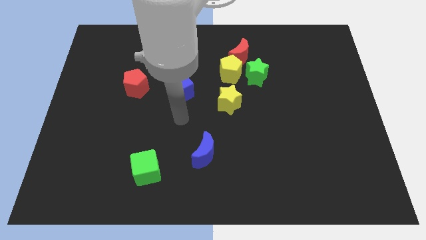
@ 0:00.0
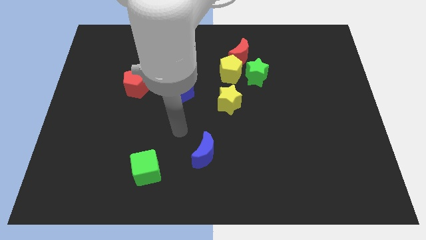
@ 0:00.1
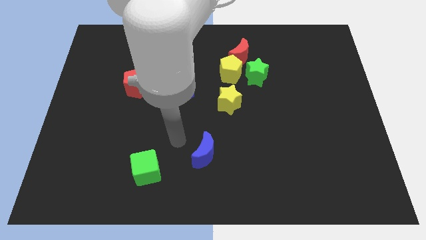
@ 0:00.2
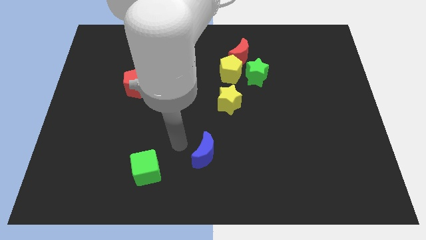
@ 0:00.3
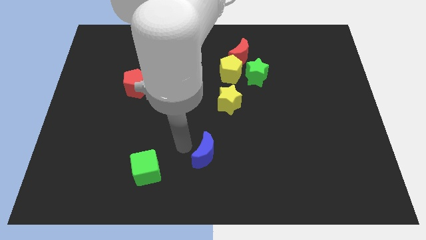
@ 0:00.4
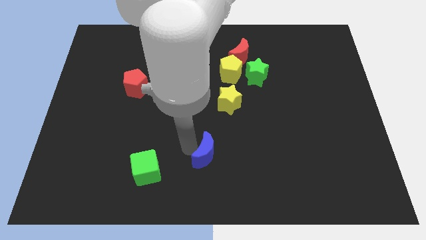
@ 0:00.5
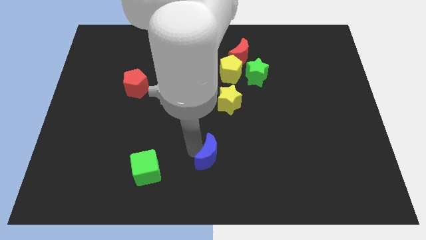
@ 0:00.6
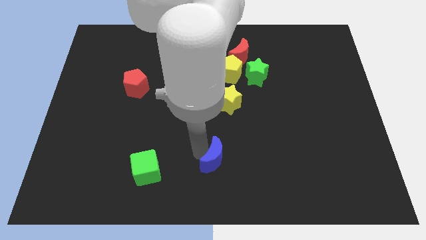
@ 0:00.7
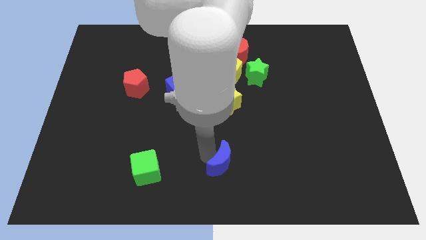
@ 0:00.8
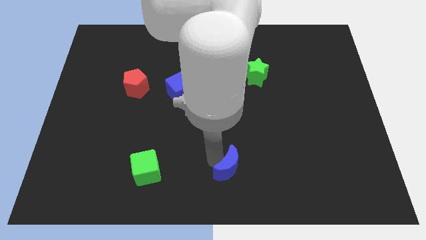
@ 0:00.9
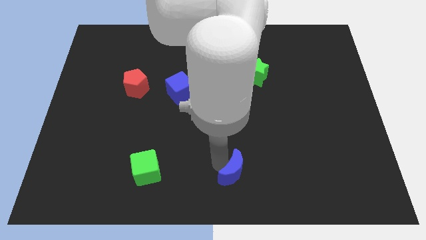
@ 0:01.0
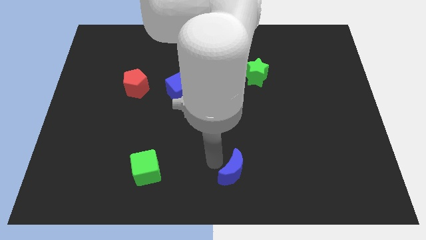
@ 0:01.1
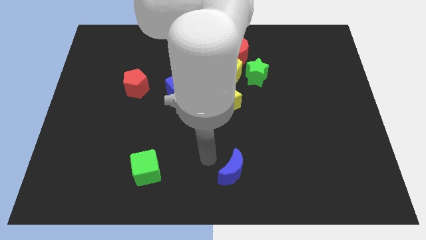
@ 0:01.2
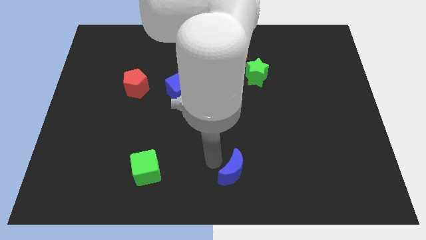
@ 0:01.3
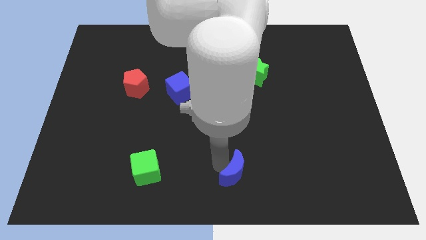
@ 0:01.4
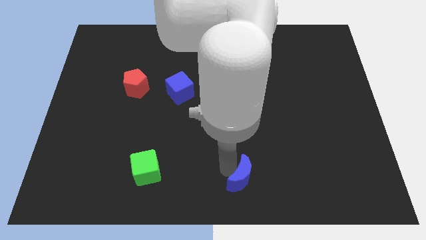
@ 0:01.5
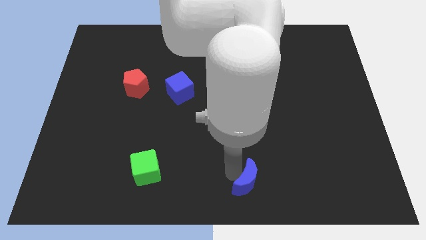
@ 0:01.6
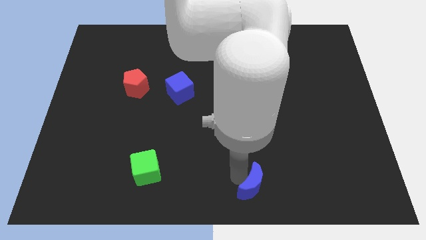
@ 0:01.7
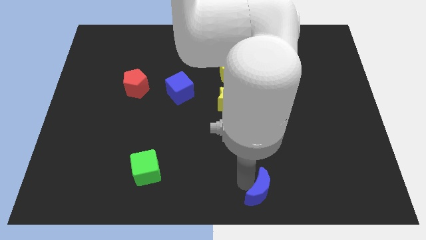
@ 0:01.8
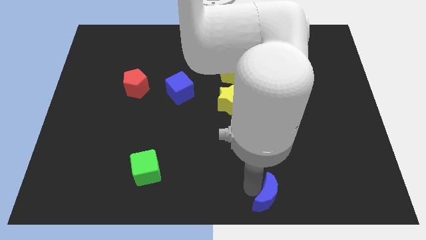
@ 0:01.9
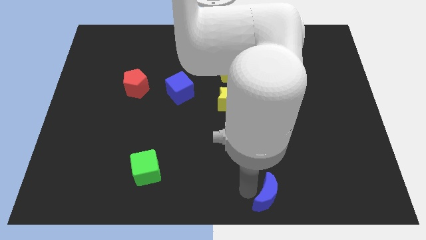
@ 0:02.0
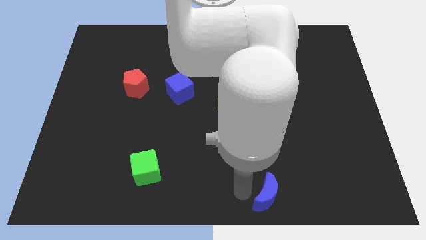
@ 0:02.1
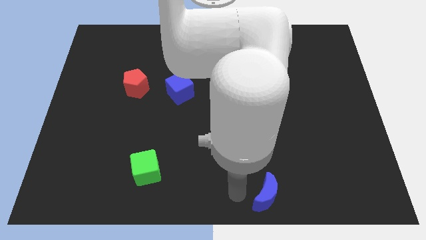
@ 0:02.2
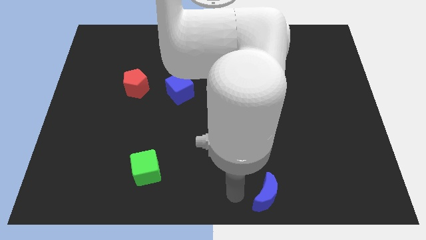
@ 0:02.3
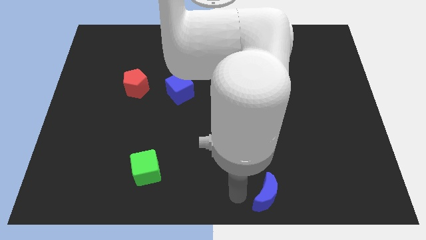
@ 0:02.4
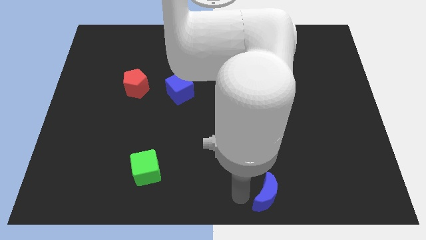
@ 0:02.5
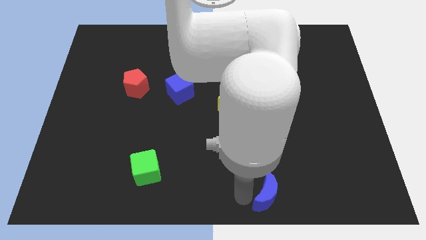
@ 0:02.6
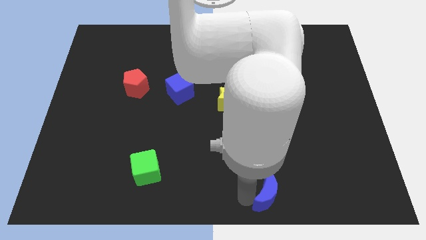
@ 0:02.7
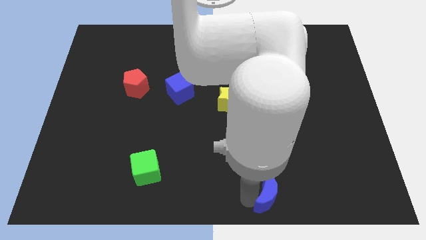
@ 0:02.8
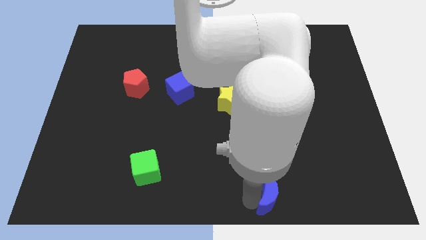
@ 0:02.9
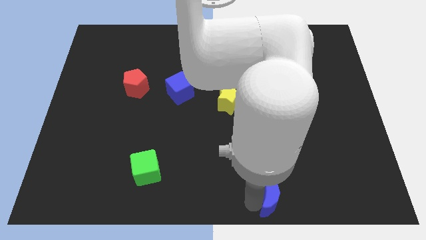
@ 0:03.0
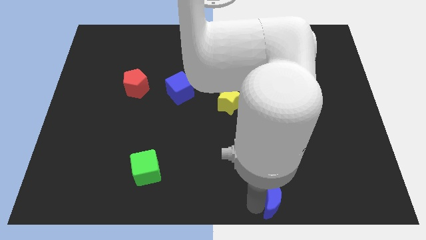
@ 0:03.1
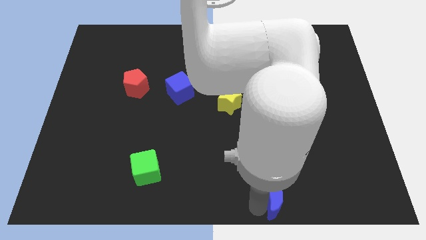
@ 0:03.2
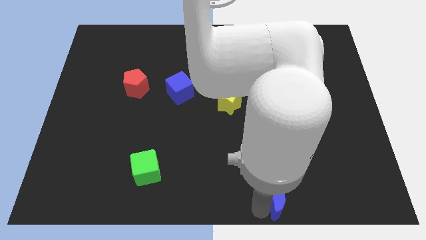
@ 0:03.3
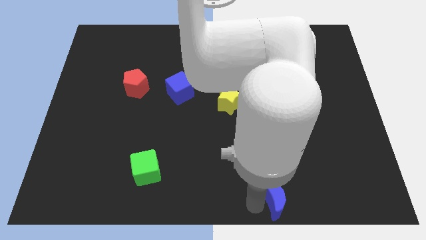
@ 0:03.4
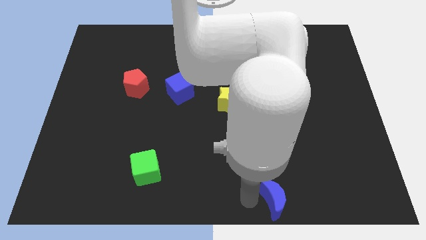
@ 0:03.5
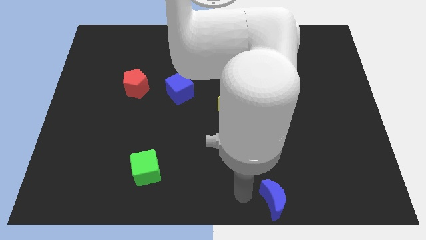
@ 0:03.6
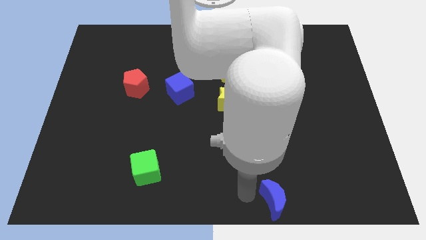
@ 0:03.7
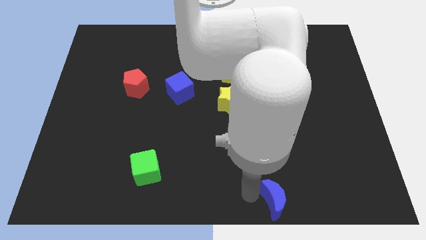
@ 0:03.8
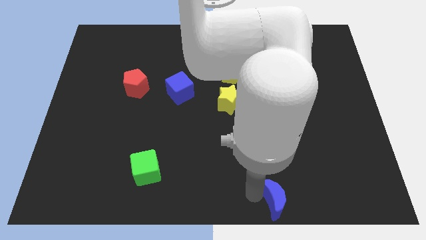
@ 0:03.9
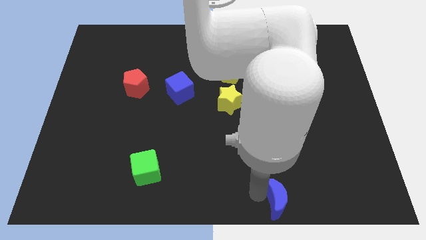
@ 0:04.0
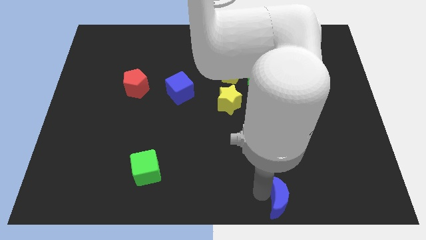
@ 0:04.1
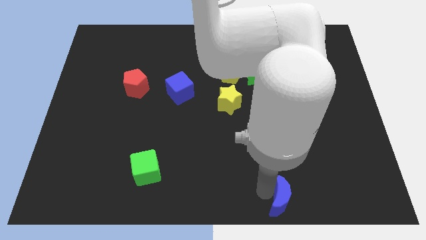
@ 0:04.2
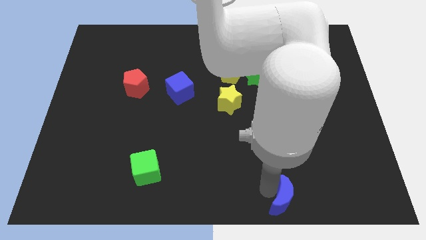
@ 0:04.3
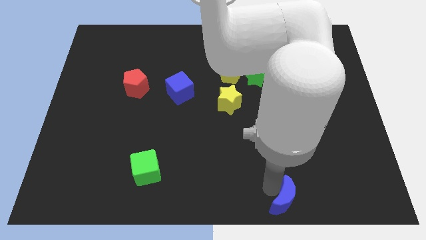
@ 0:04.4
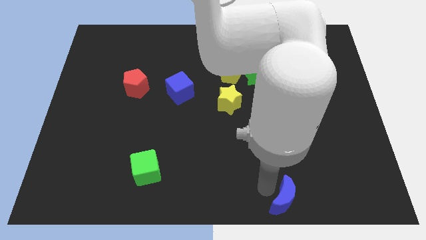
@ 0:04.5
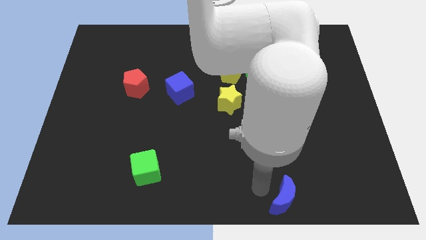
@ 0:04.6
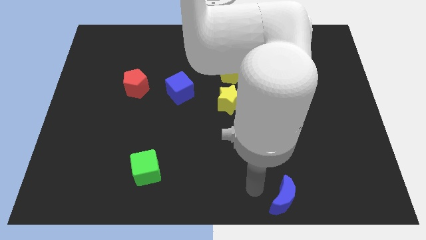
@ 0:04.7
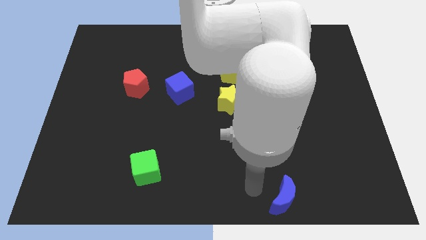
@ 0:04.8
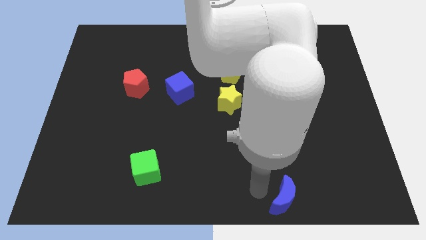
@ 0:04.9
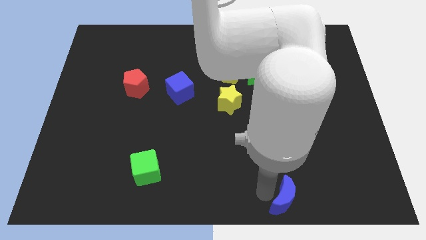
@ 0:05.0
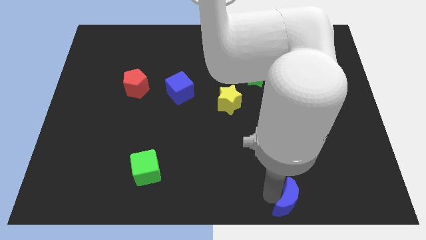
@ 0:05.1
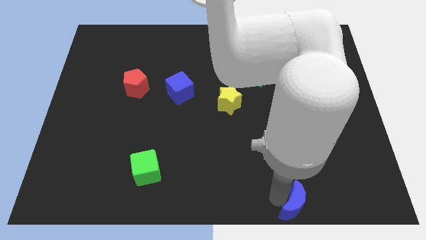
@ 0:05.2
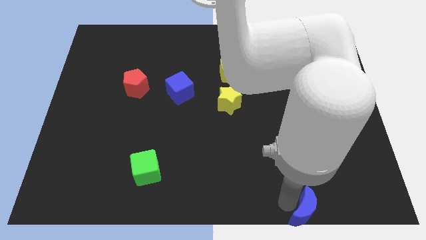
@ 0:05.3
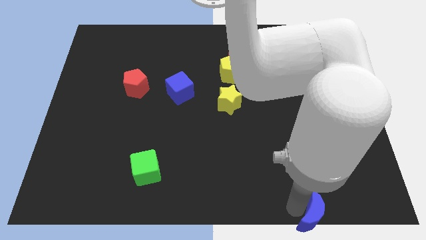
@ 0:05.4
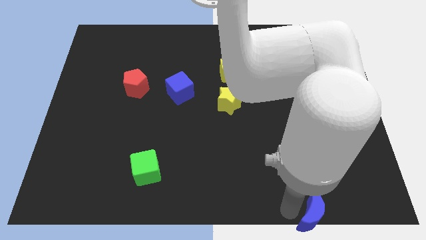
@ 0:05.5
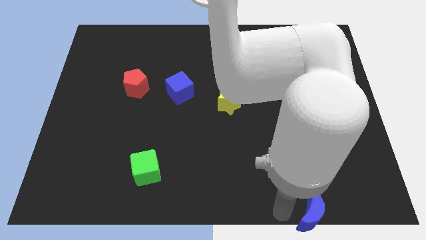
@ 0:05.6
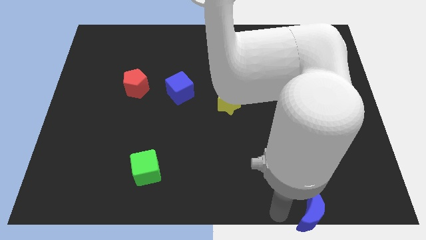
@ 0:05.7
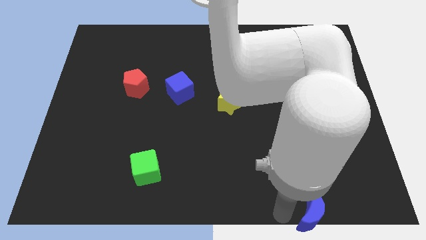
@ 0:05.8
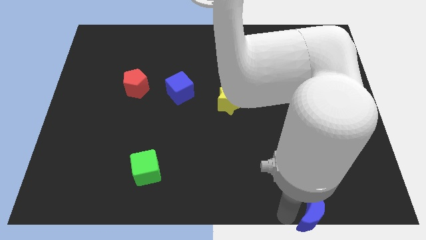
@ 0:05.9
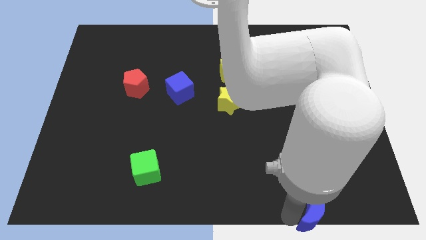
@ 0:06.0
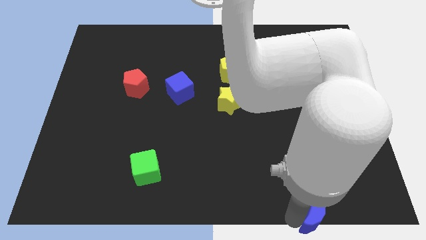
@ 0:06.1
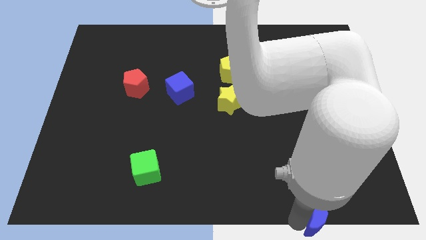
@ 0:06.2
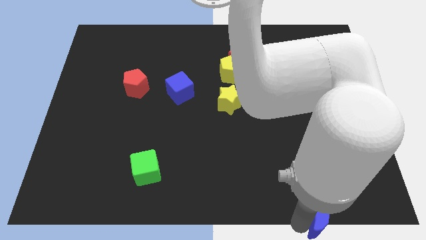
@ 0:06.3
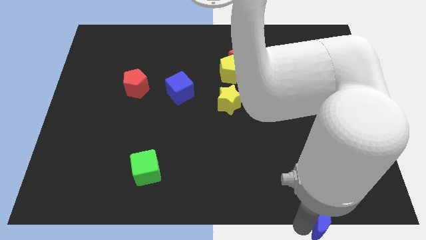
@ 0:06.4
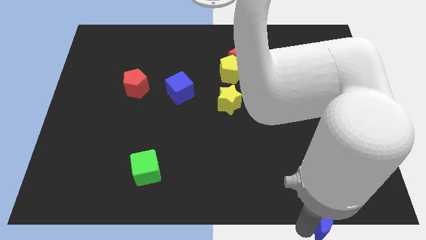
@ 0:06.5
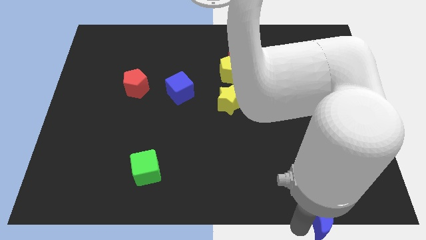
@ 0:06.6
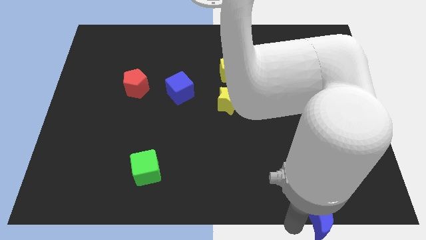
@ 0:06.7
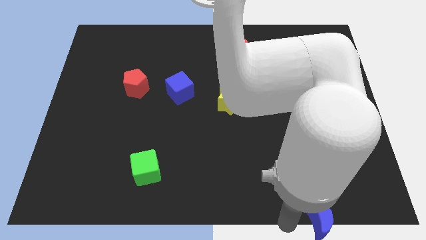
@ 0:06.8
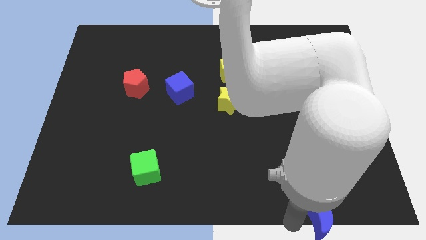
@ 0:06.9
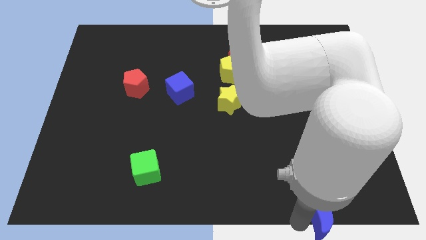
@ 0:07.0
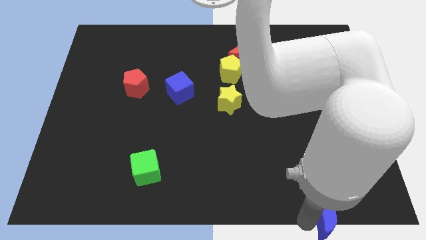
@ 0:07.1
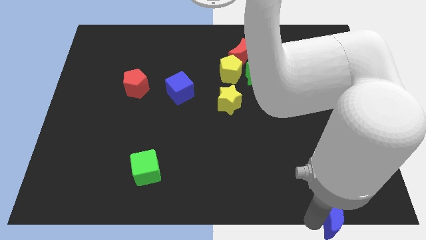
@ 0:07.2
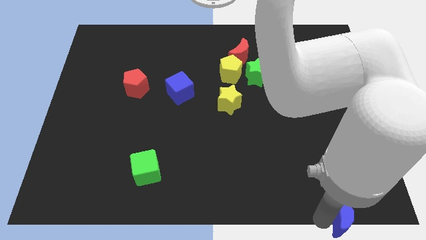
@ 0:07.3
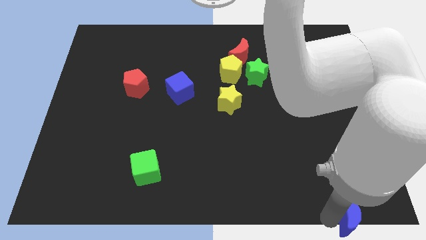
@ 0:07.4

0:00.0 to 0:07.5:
move the blue moon to the bottom right
